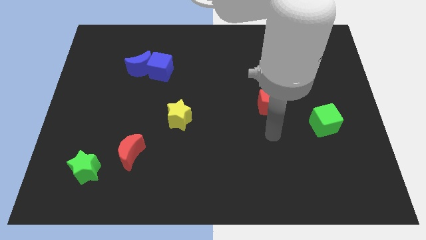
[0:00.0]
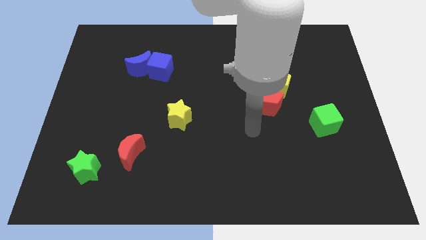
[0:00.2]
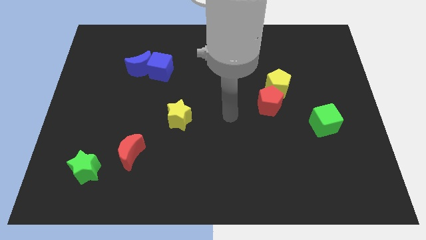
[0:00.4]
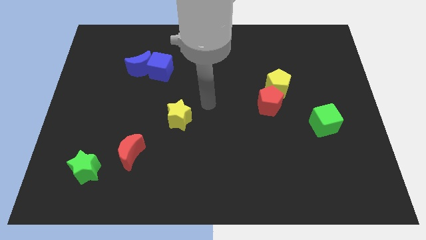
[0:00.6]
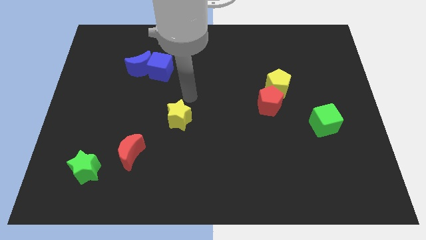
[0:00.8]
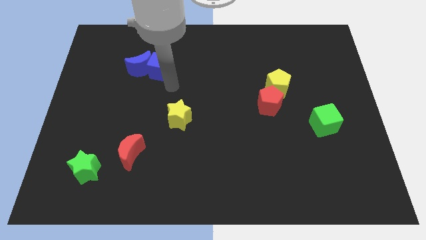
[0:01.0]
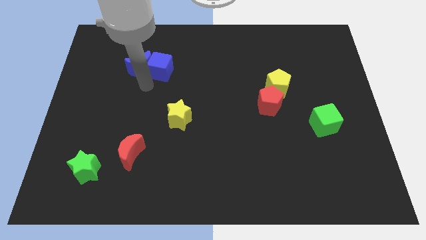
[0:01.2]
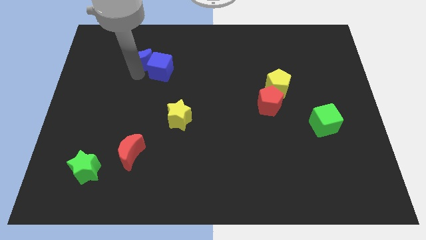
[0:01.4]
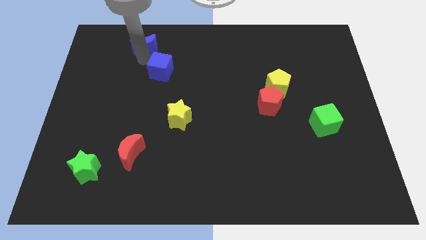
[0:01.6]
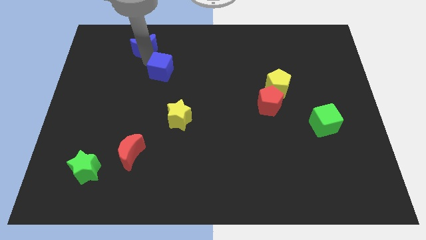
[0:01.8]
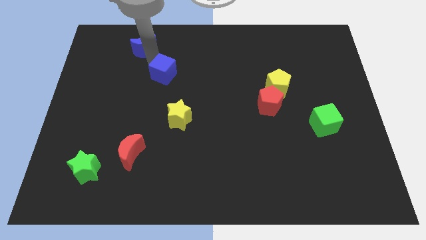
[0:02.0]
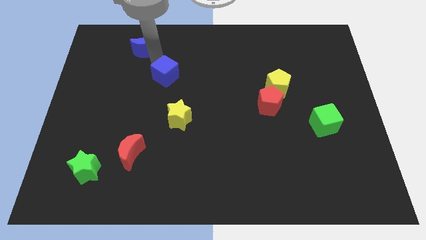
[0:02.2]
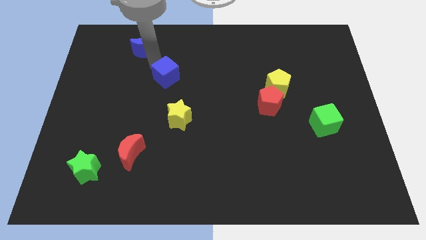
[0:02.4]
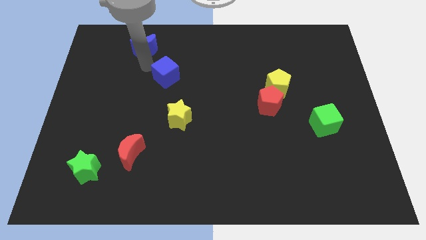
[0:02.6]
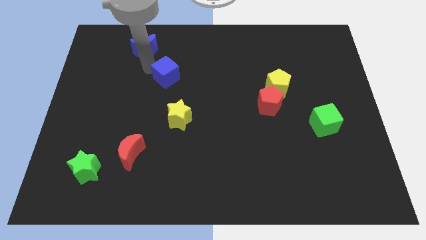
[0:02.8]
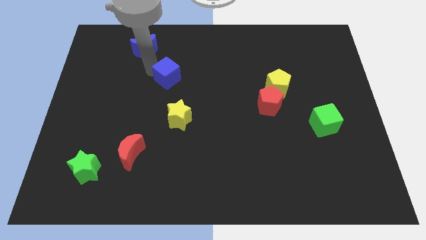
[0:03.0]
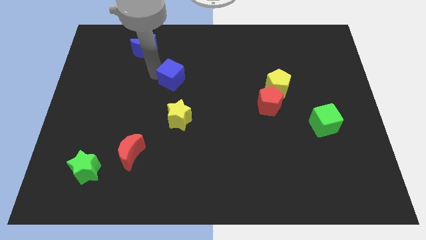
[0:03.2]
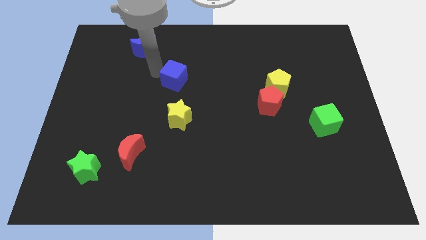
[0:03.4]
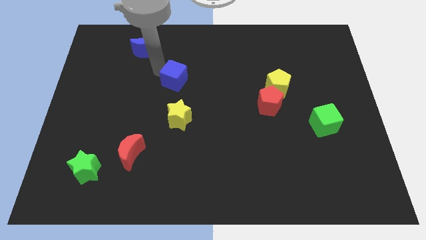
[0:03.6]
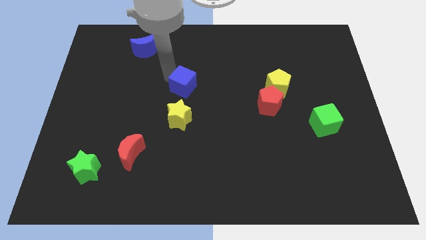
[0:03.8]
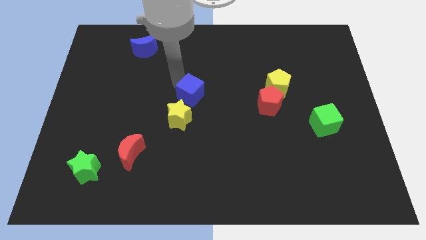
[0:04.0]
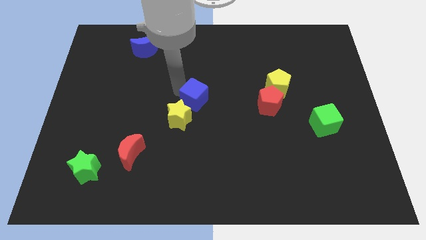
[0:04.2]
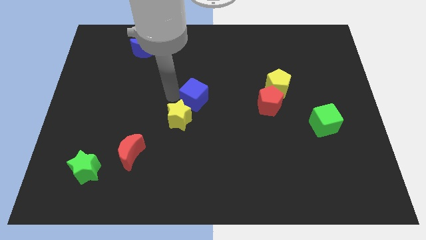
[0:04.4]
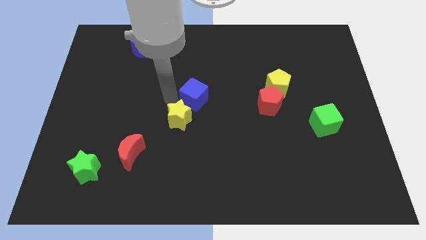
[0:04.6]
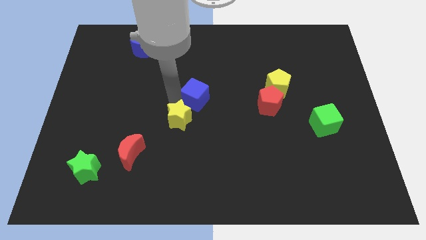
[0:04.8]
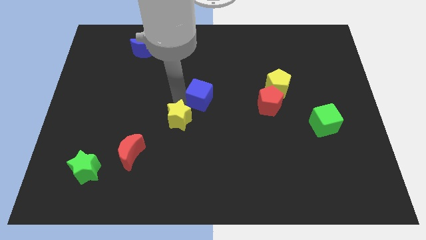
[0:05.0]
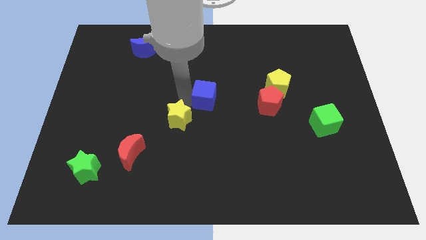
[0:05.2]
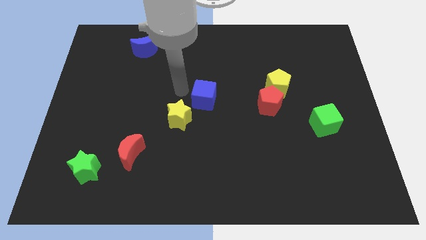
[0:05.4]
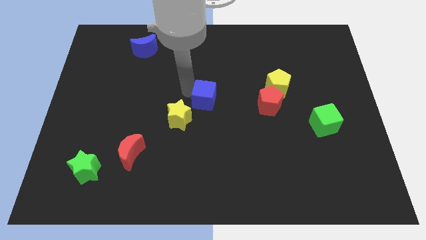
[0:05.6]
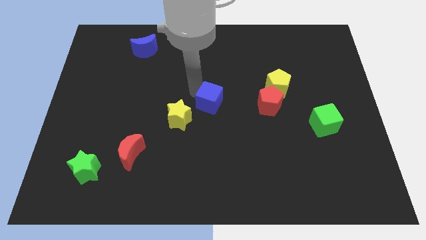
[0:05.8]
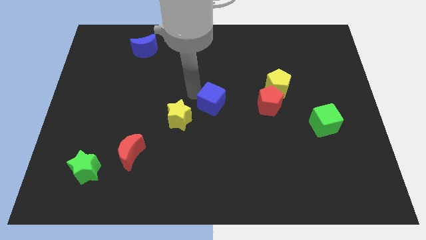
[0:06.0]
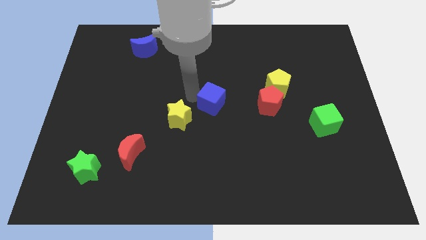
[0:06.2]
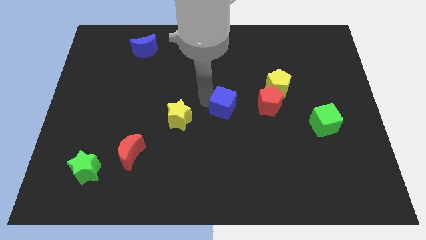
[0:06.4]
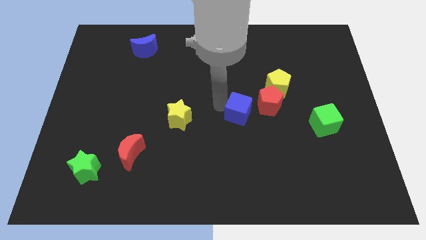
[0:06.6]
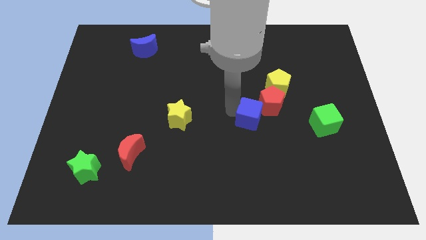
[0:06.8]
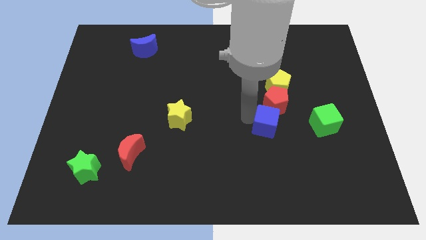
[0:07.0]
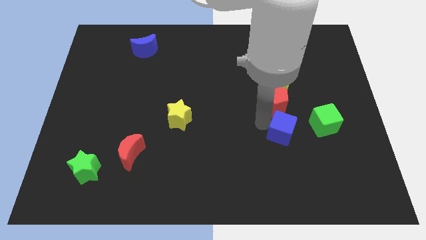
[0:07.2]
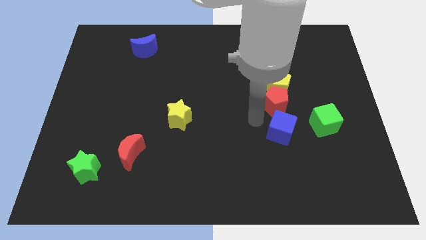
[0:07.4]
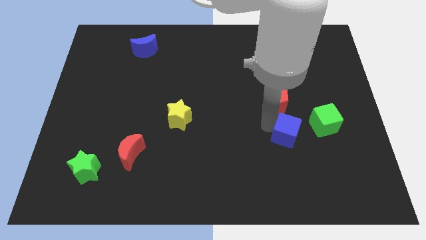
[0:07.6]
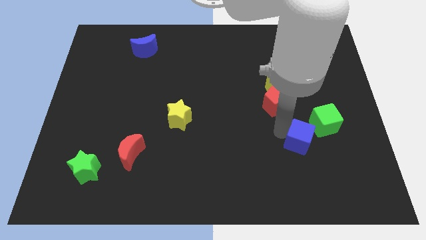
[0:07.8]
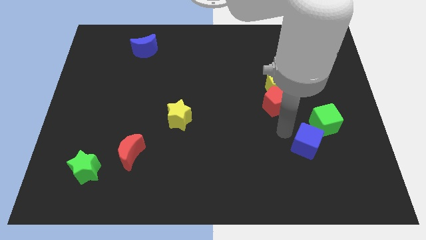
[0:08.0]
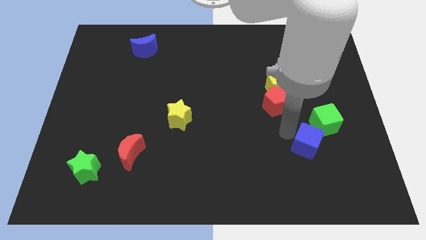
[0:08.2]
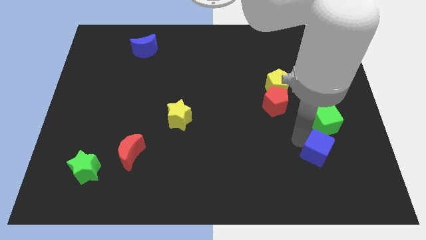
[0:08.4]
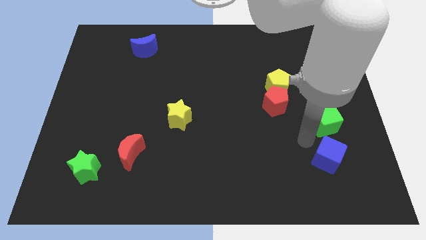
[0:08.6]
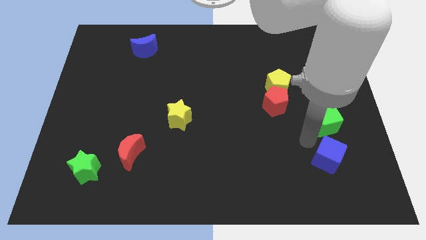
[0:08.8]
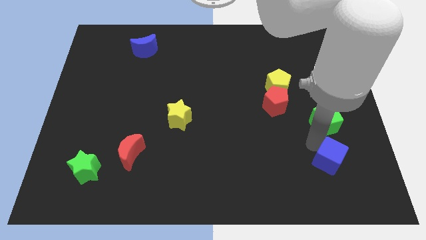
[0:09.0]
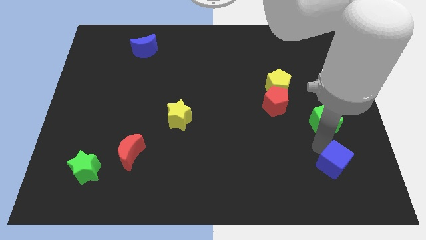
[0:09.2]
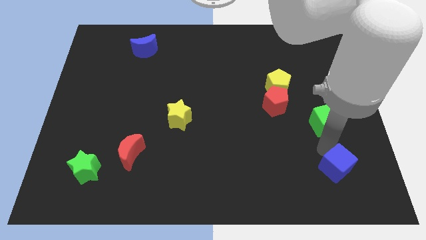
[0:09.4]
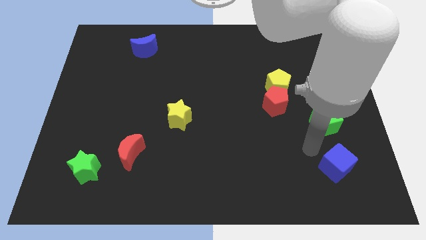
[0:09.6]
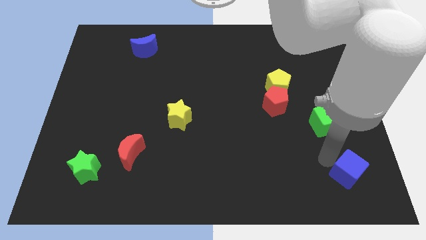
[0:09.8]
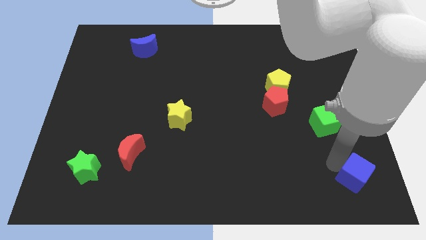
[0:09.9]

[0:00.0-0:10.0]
push the blue cube to the lower right corner

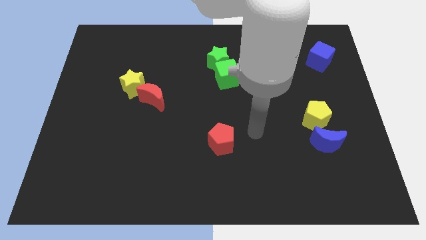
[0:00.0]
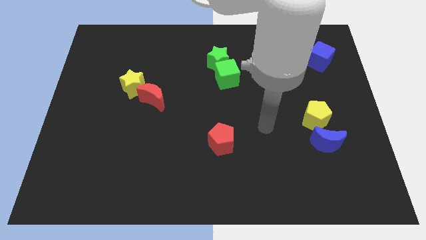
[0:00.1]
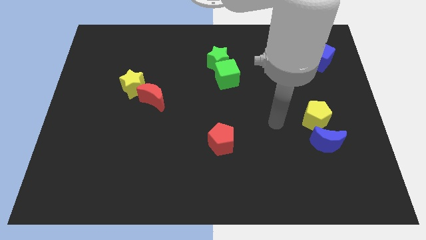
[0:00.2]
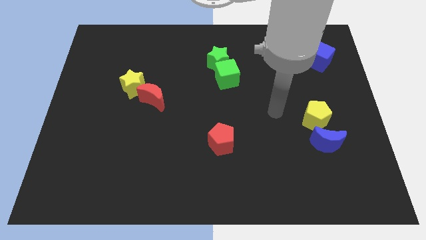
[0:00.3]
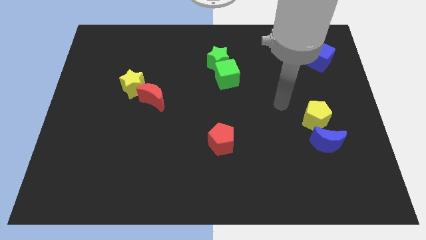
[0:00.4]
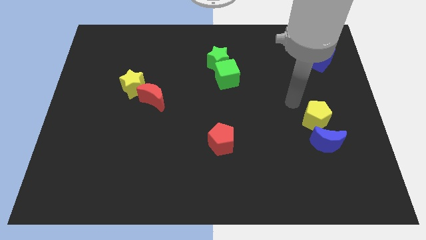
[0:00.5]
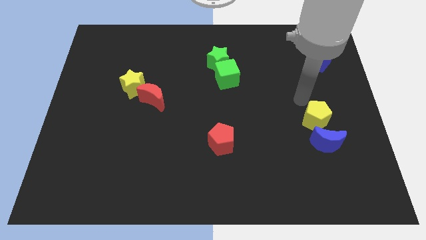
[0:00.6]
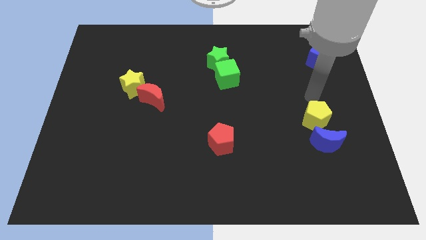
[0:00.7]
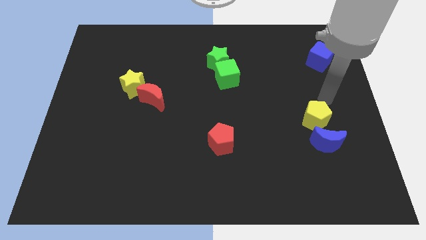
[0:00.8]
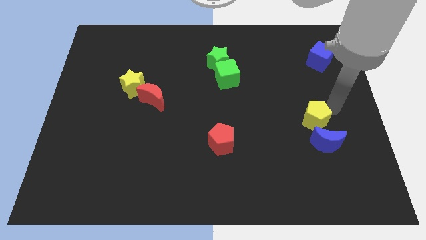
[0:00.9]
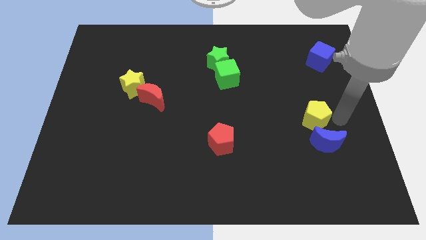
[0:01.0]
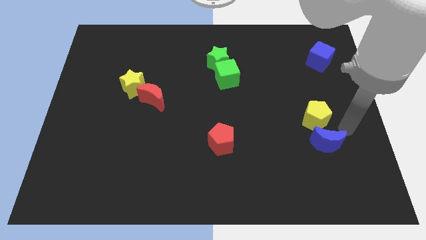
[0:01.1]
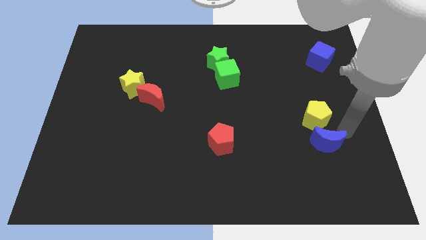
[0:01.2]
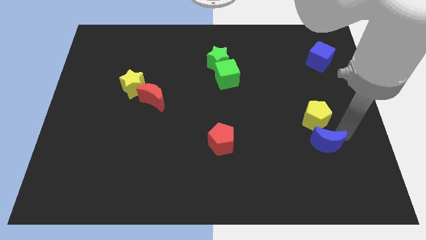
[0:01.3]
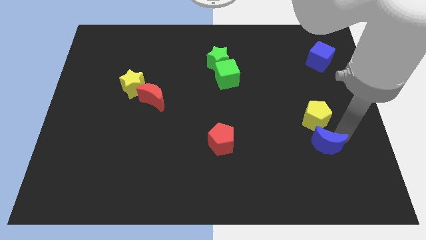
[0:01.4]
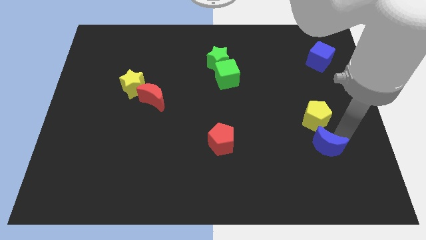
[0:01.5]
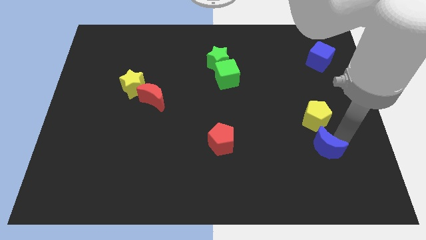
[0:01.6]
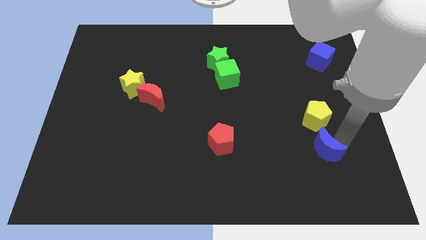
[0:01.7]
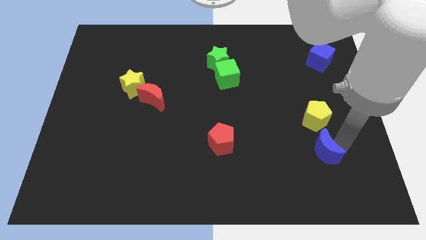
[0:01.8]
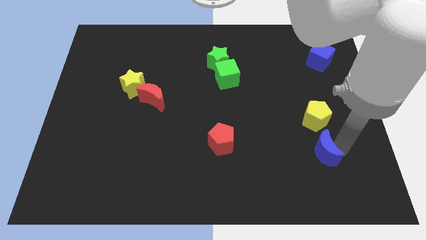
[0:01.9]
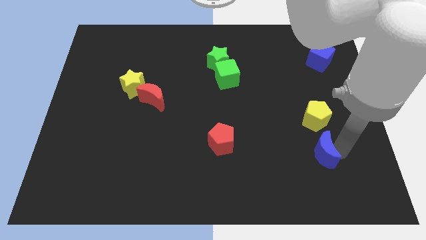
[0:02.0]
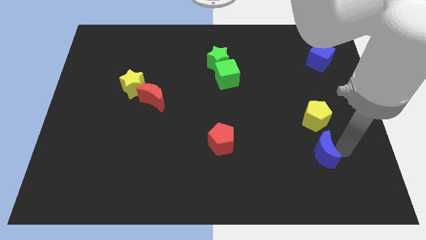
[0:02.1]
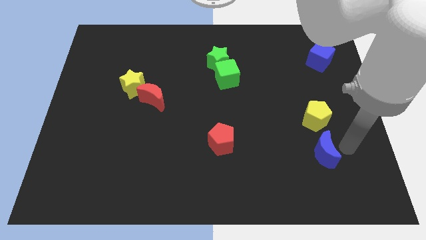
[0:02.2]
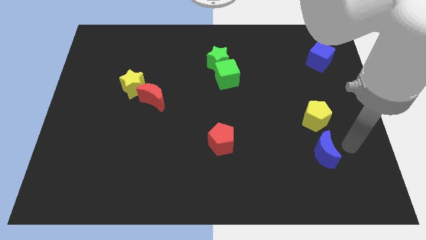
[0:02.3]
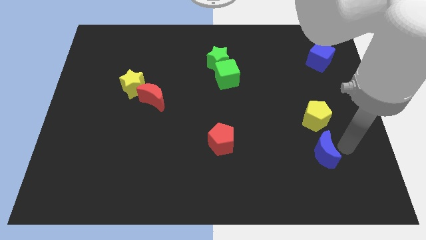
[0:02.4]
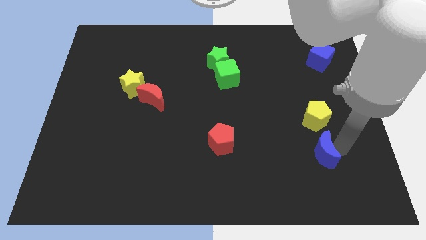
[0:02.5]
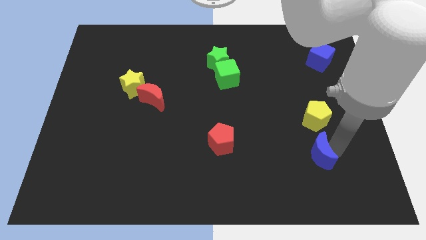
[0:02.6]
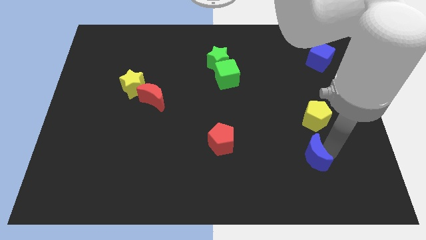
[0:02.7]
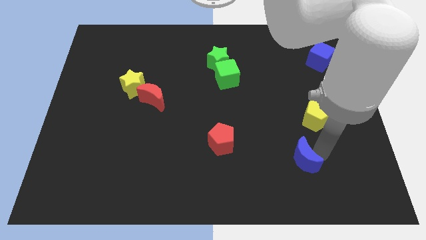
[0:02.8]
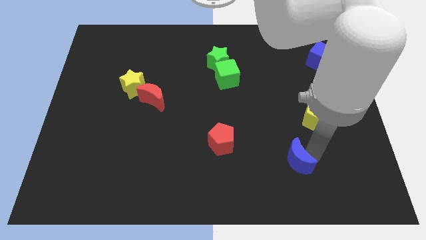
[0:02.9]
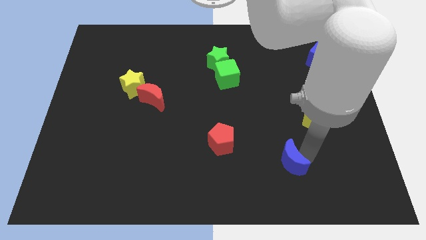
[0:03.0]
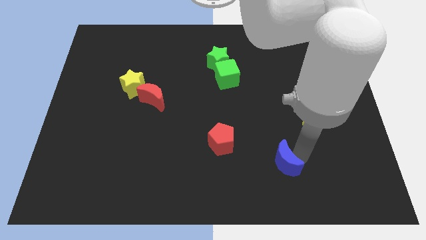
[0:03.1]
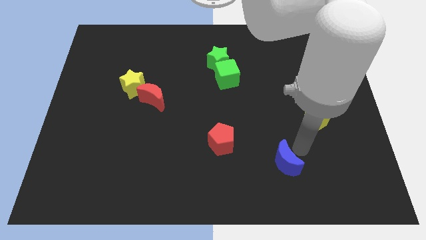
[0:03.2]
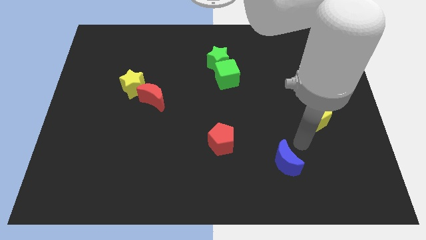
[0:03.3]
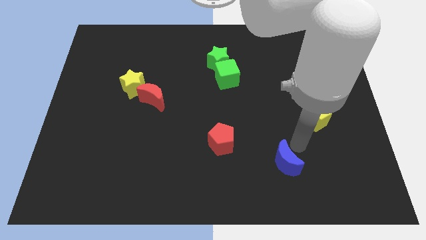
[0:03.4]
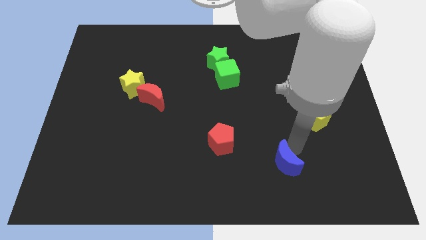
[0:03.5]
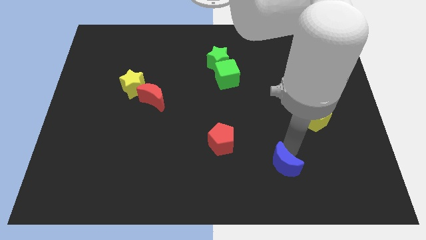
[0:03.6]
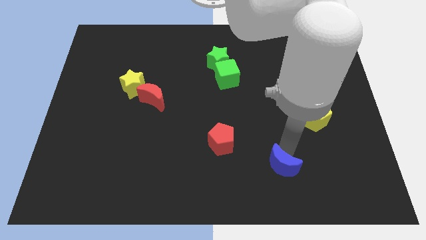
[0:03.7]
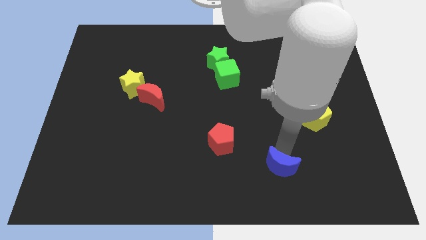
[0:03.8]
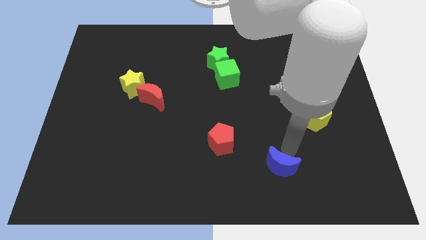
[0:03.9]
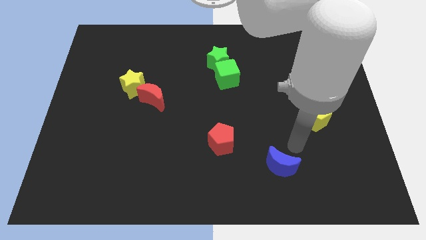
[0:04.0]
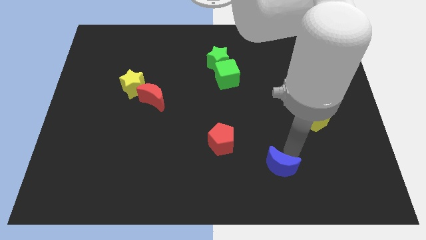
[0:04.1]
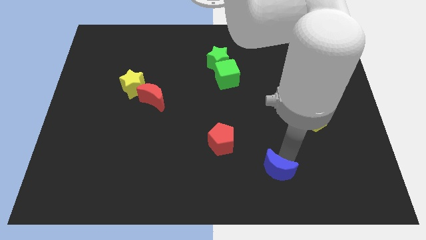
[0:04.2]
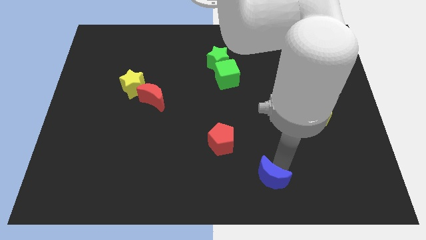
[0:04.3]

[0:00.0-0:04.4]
slide the blue moon to the bottom
